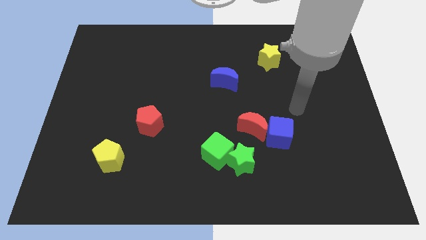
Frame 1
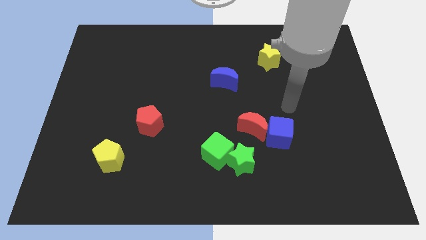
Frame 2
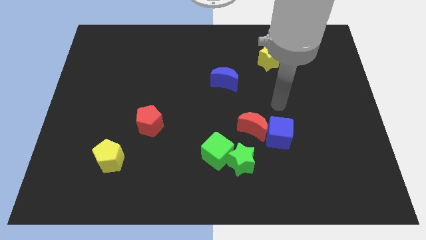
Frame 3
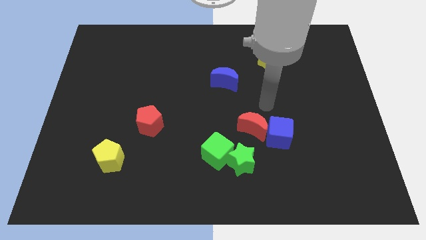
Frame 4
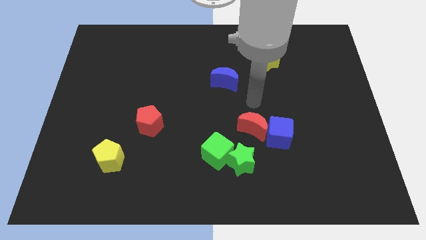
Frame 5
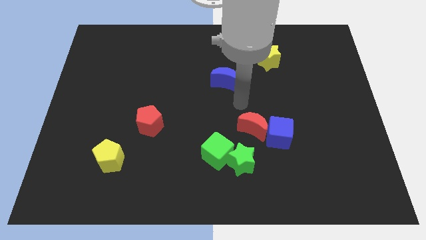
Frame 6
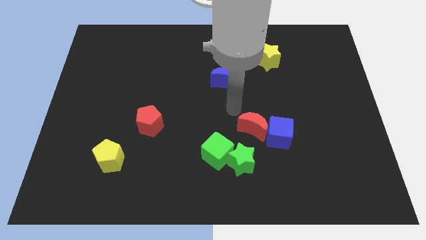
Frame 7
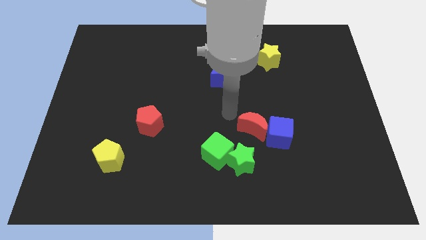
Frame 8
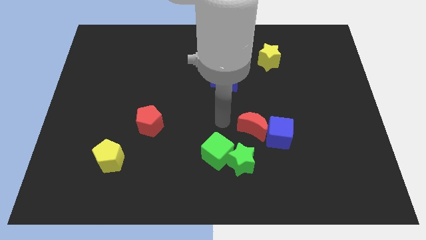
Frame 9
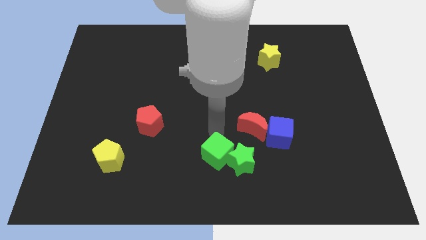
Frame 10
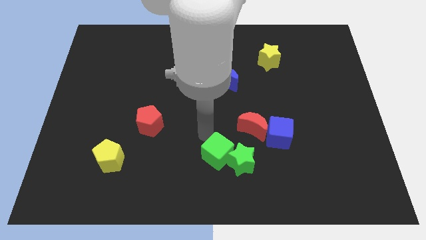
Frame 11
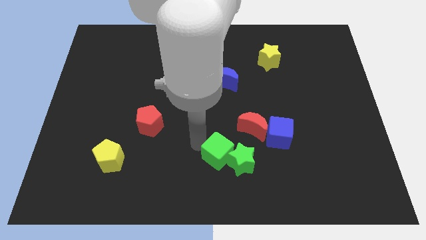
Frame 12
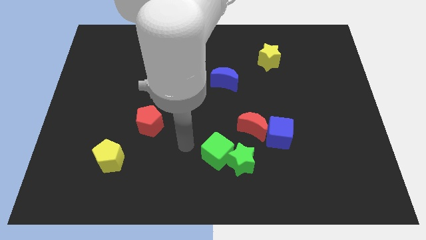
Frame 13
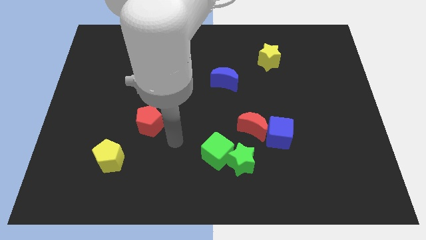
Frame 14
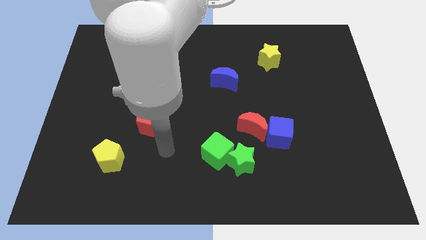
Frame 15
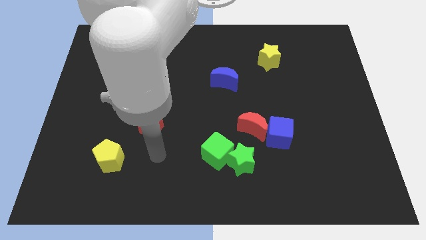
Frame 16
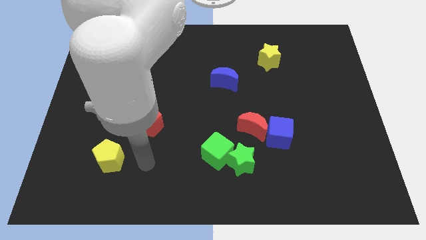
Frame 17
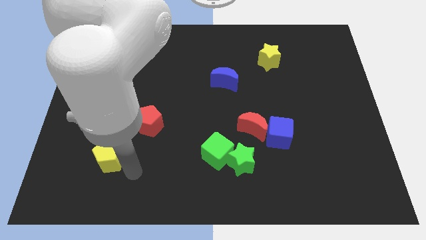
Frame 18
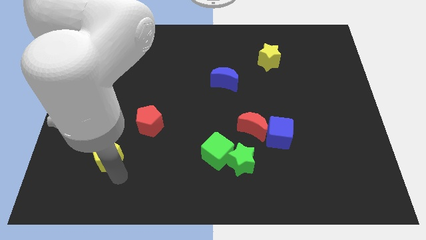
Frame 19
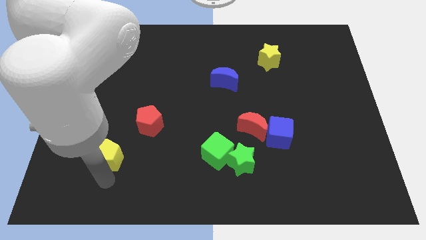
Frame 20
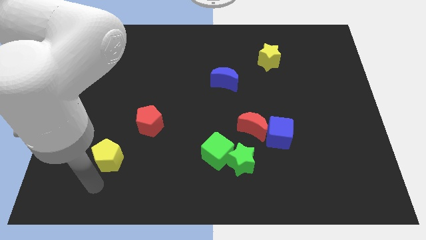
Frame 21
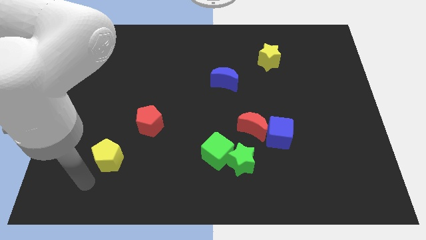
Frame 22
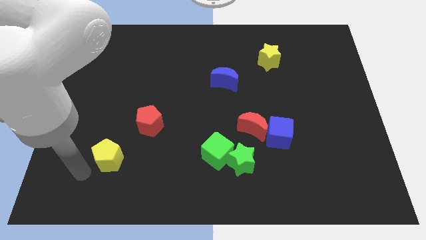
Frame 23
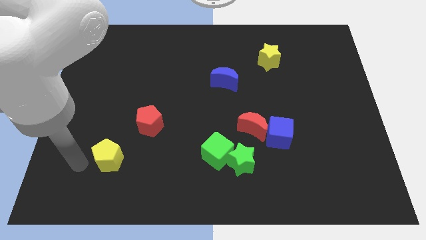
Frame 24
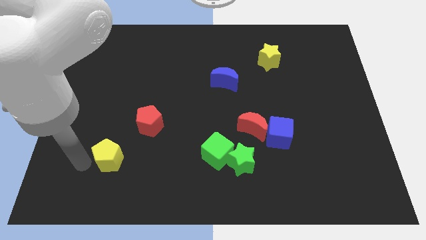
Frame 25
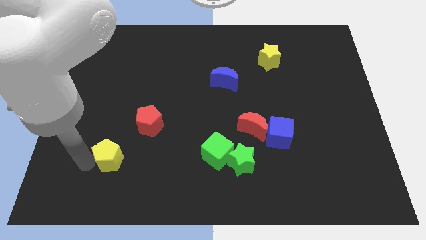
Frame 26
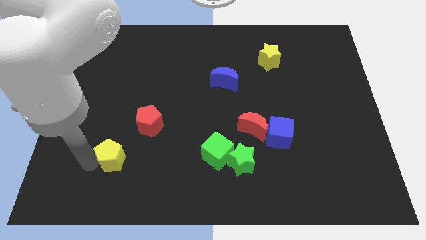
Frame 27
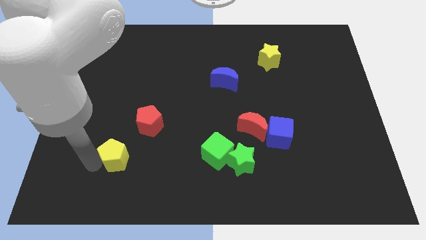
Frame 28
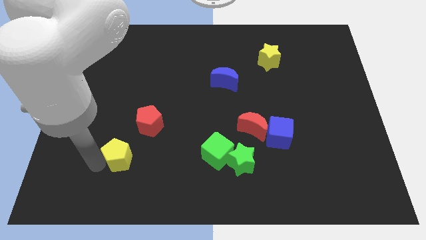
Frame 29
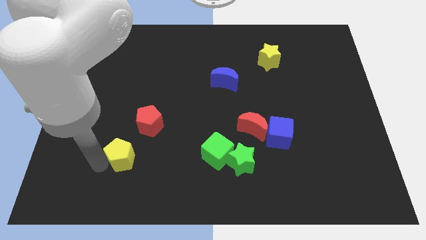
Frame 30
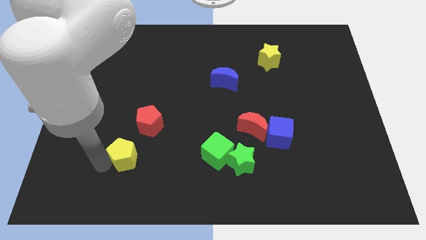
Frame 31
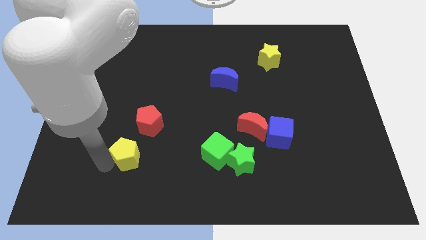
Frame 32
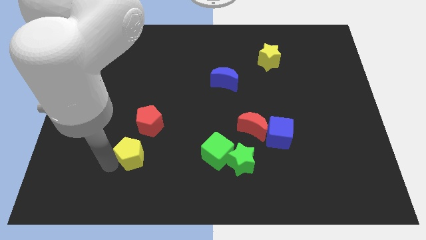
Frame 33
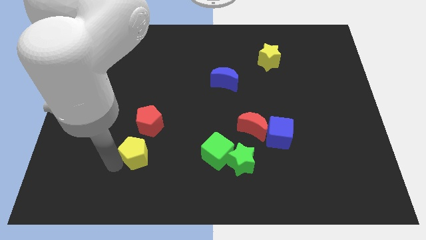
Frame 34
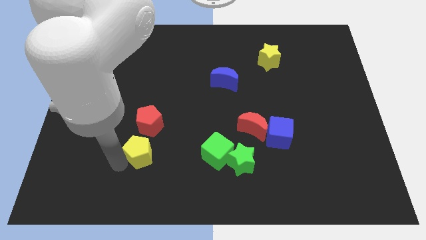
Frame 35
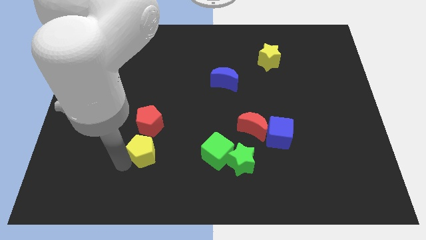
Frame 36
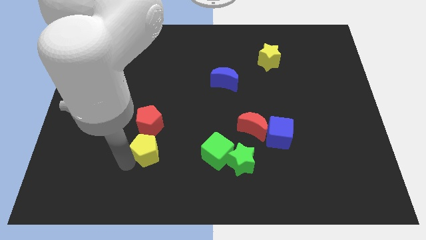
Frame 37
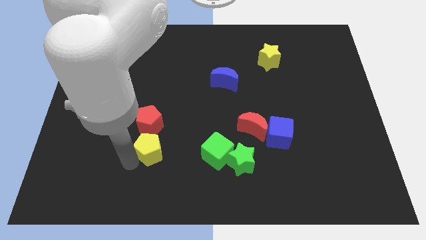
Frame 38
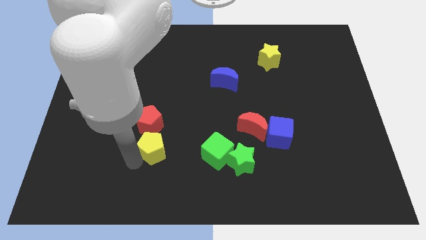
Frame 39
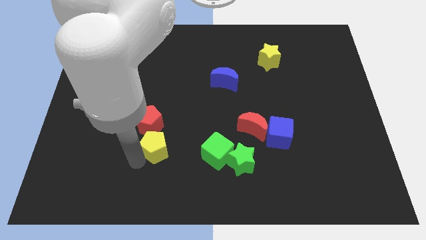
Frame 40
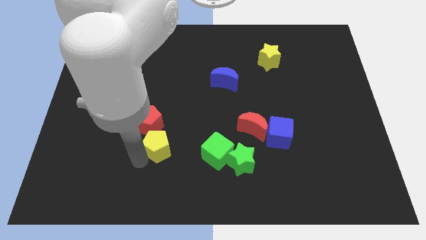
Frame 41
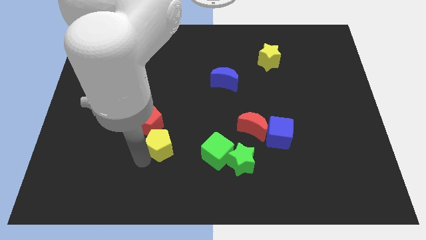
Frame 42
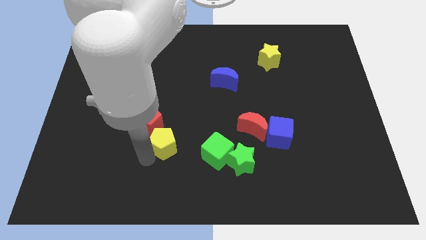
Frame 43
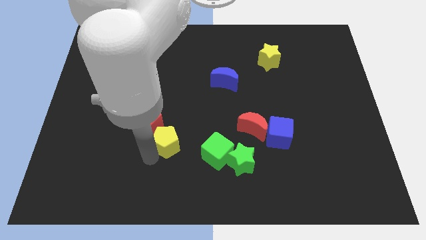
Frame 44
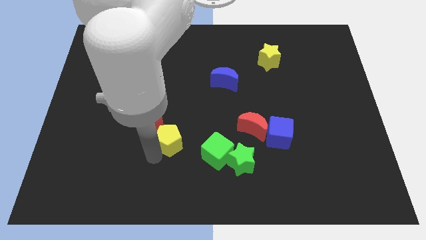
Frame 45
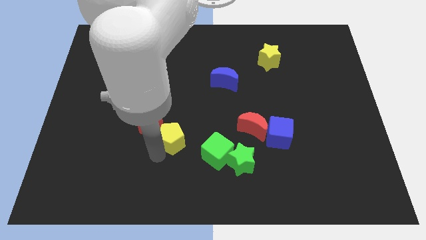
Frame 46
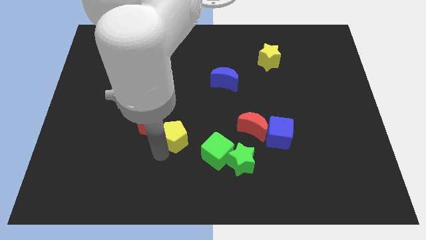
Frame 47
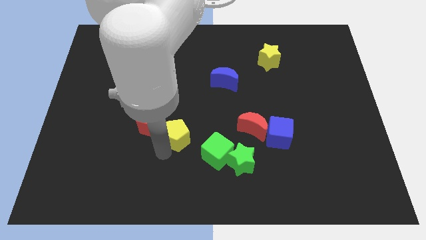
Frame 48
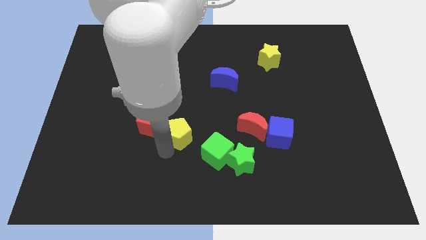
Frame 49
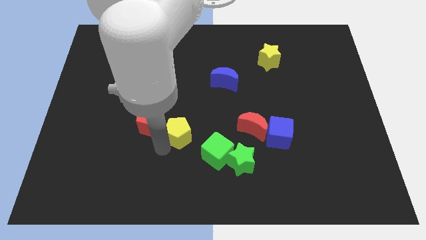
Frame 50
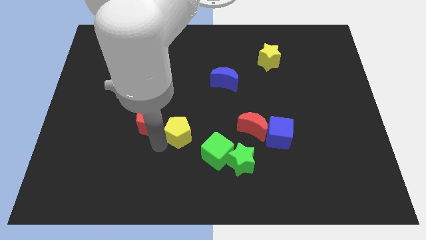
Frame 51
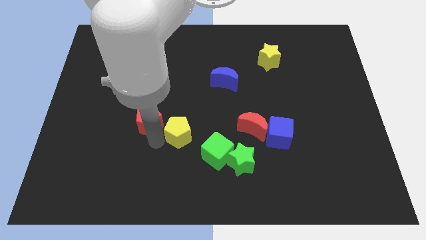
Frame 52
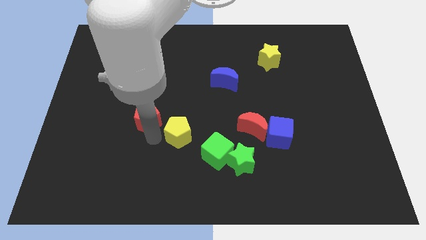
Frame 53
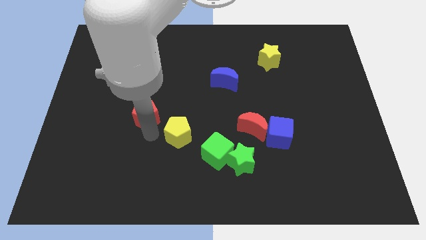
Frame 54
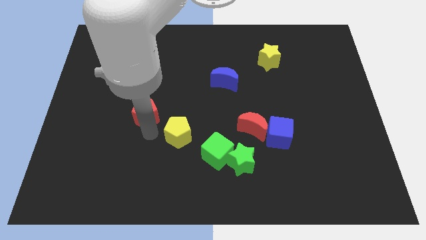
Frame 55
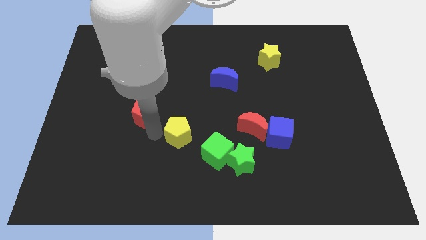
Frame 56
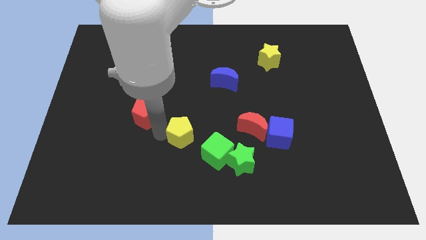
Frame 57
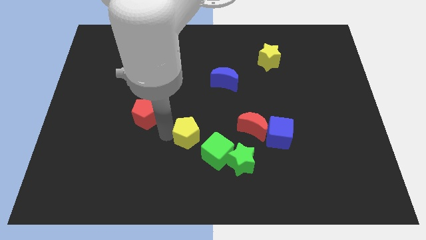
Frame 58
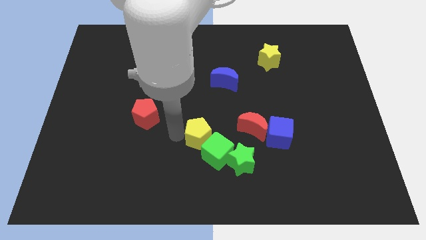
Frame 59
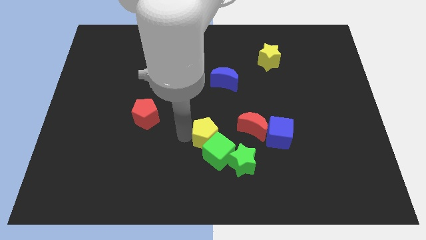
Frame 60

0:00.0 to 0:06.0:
push the yellow pentagon to the left side of the blue cube

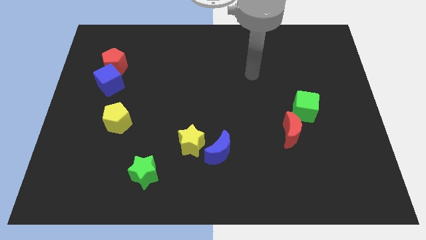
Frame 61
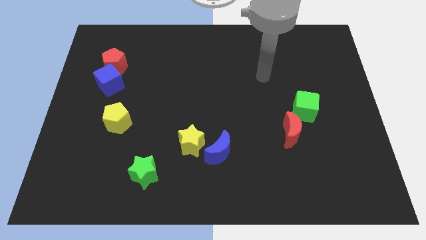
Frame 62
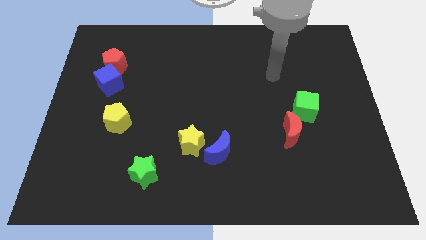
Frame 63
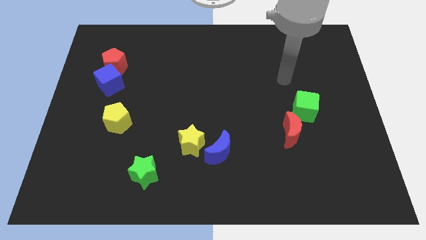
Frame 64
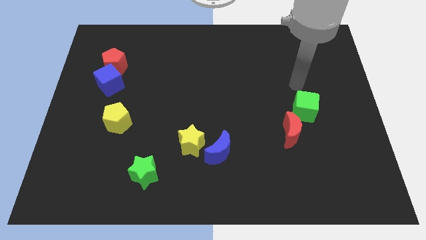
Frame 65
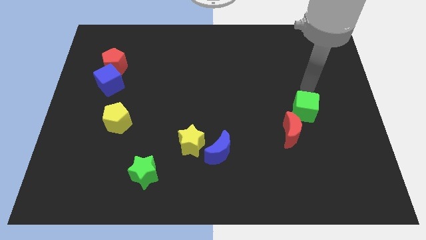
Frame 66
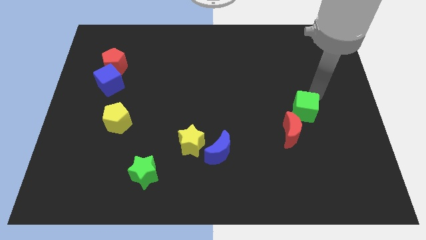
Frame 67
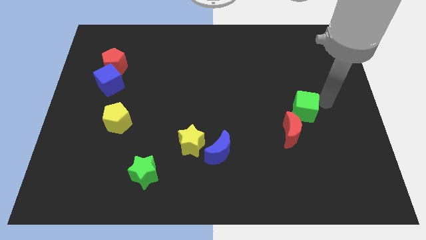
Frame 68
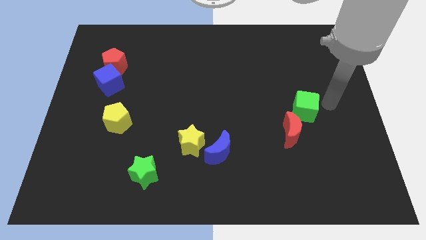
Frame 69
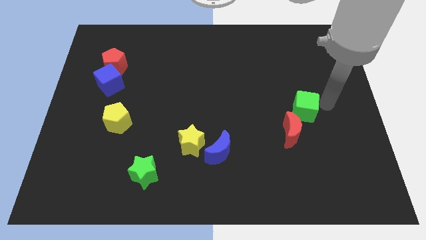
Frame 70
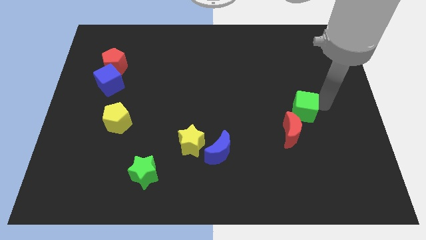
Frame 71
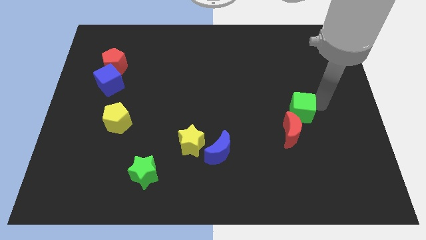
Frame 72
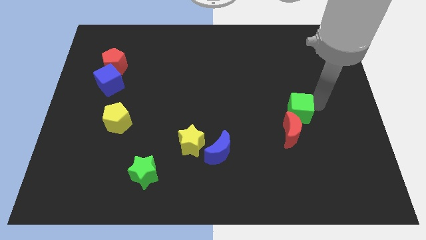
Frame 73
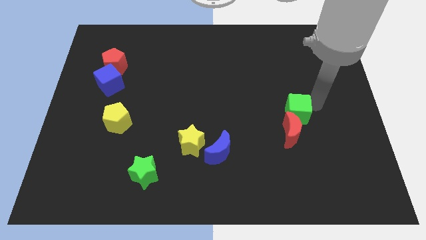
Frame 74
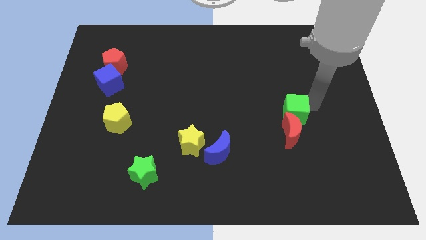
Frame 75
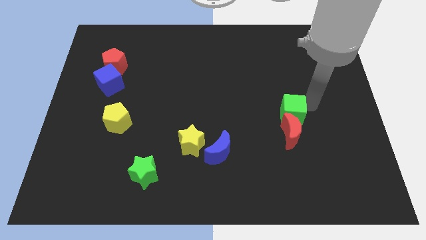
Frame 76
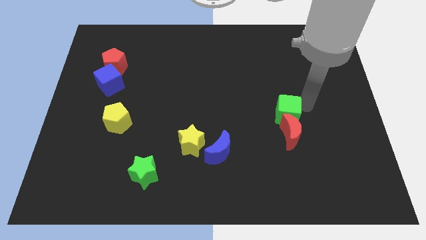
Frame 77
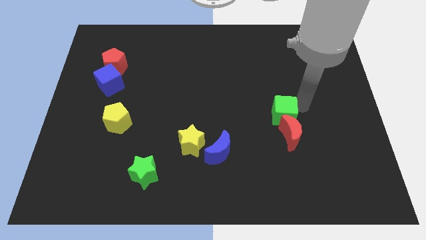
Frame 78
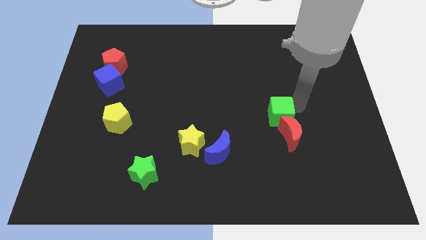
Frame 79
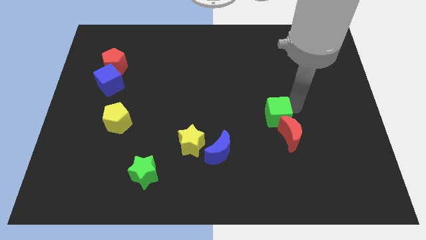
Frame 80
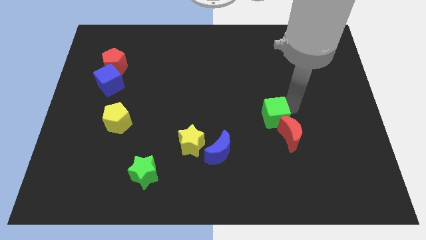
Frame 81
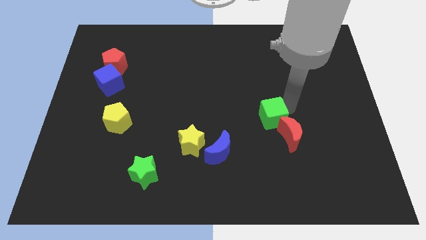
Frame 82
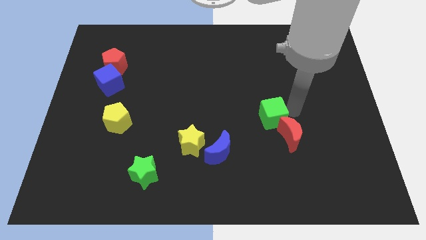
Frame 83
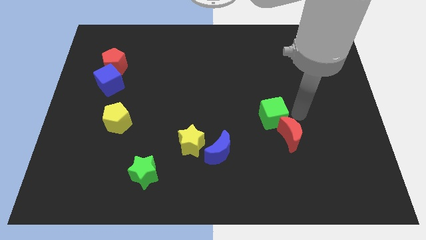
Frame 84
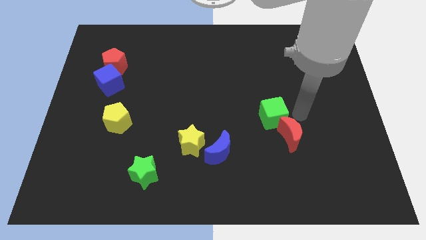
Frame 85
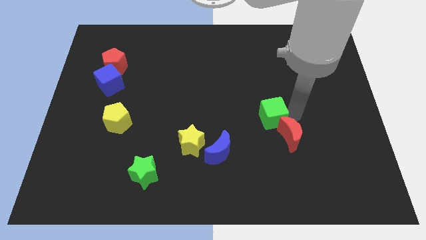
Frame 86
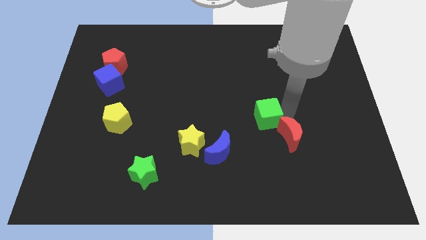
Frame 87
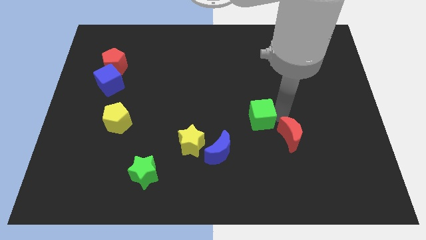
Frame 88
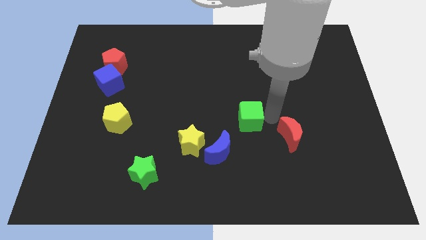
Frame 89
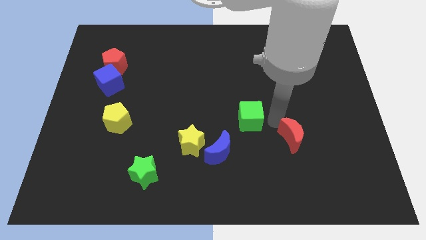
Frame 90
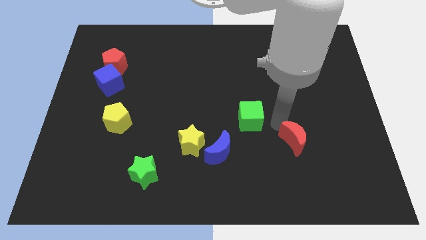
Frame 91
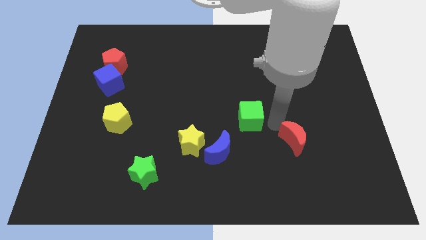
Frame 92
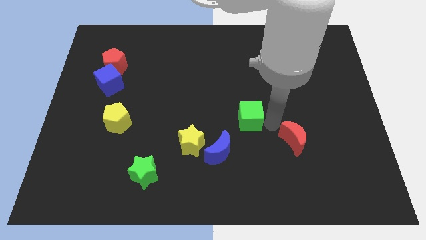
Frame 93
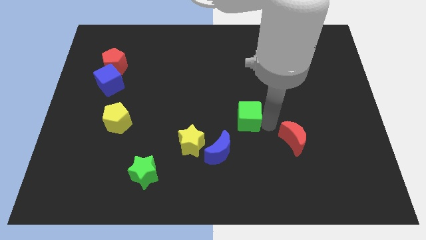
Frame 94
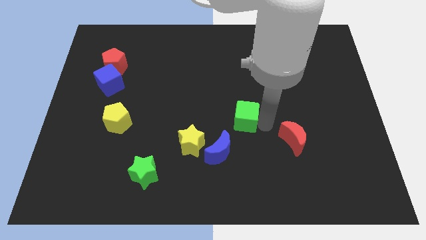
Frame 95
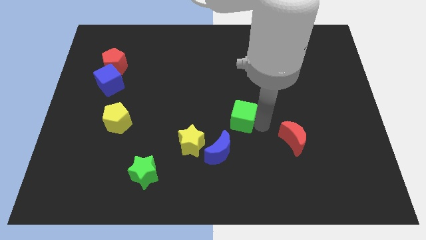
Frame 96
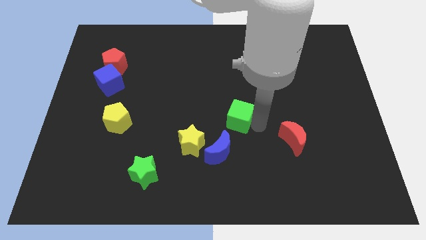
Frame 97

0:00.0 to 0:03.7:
put the green cube above the blue moon
